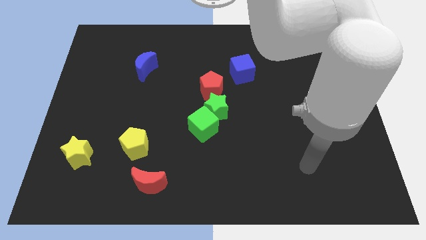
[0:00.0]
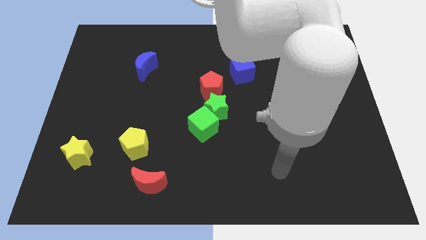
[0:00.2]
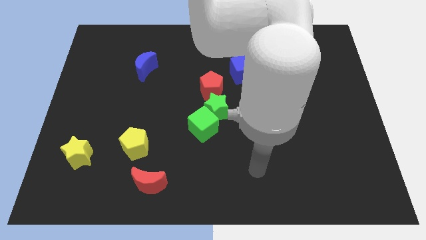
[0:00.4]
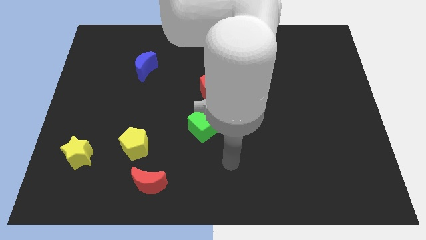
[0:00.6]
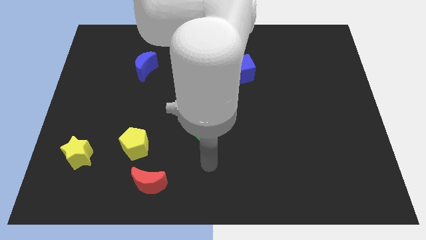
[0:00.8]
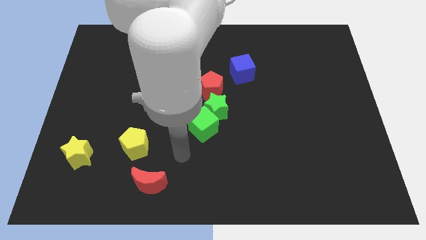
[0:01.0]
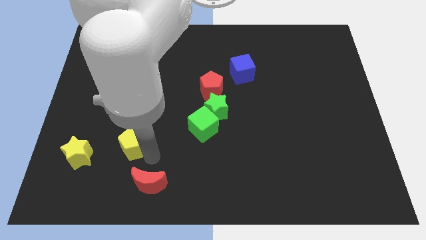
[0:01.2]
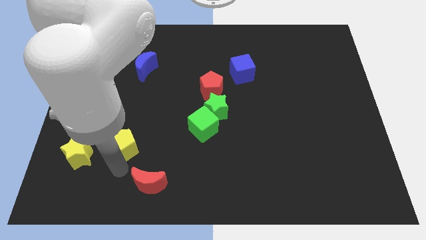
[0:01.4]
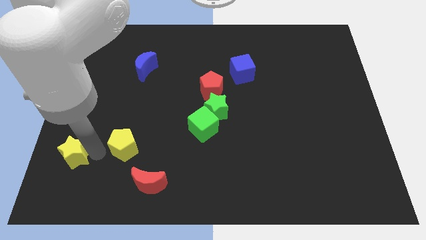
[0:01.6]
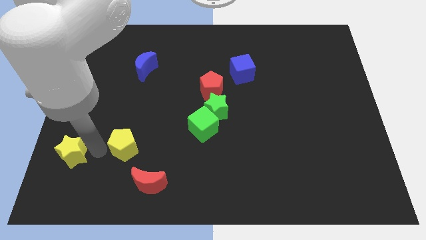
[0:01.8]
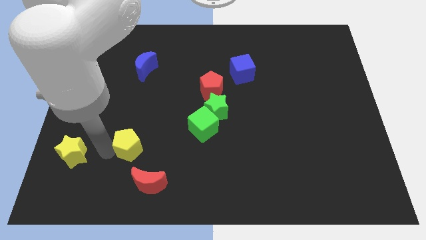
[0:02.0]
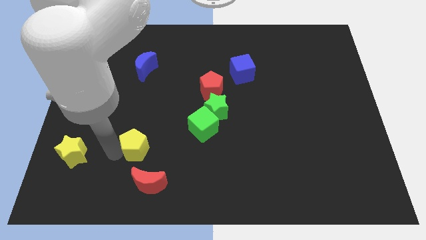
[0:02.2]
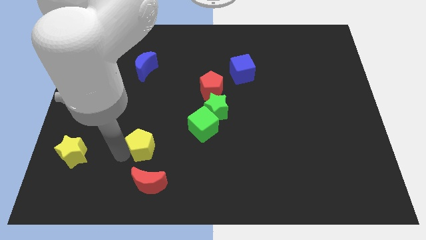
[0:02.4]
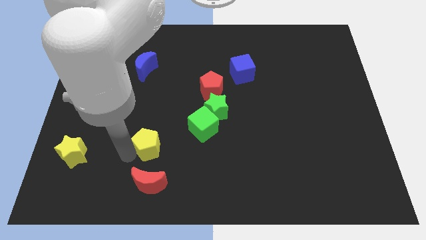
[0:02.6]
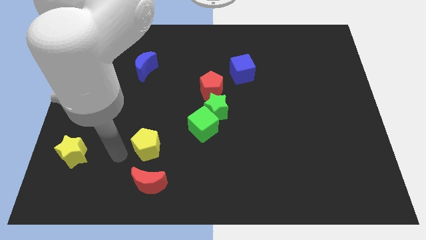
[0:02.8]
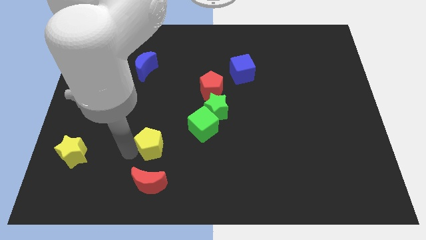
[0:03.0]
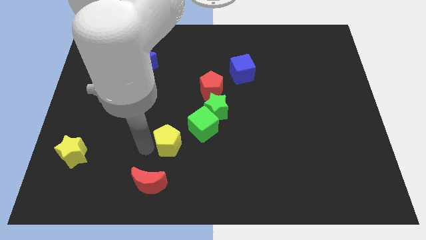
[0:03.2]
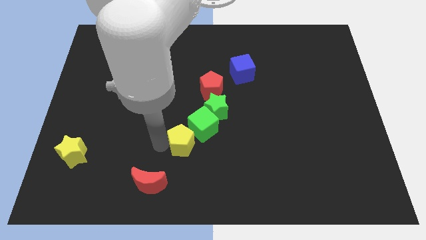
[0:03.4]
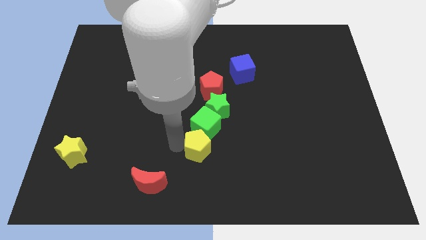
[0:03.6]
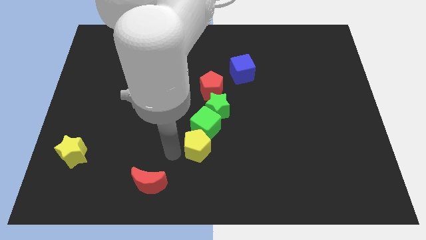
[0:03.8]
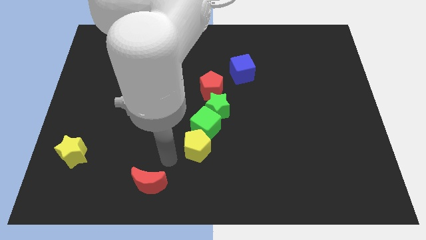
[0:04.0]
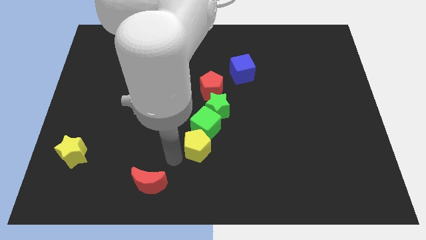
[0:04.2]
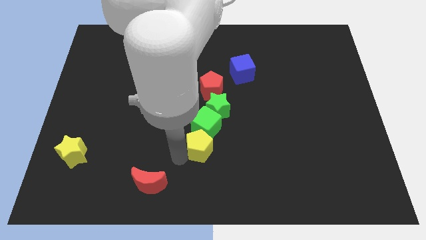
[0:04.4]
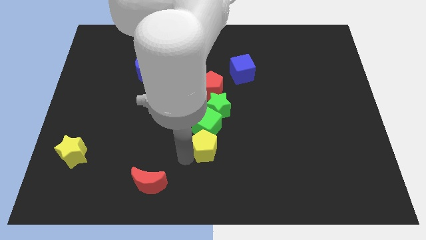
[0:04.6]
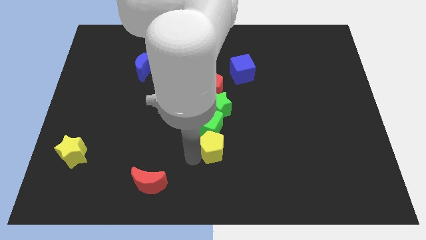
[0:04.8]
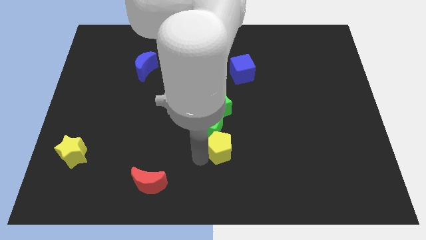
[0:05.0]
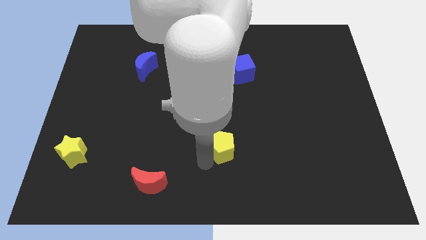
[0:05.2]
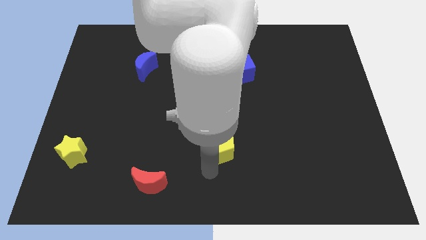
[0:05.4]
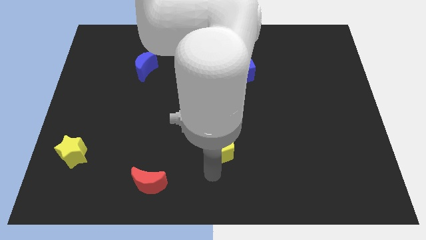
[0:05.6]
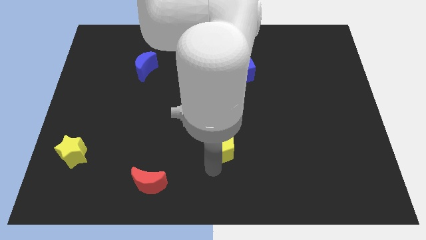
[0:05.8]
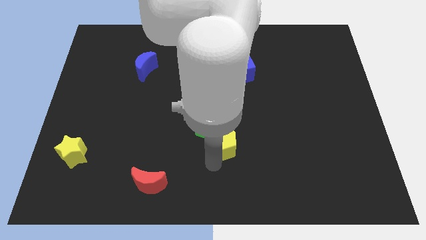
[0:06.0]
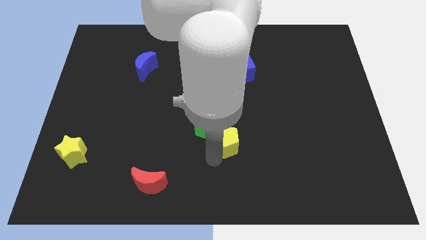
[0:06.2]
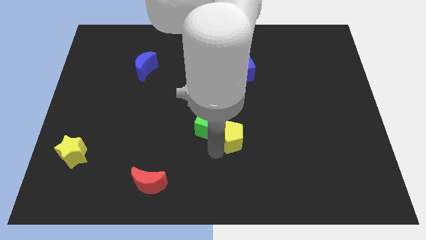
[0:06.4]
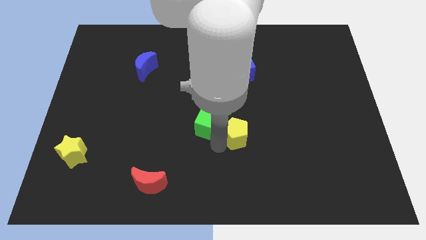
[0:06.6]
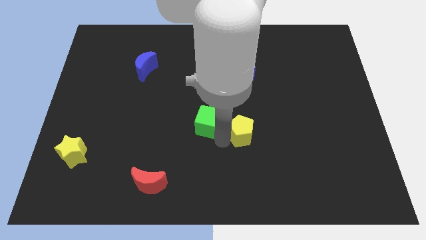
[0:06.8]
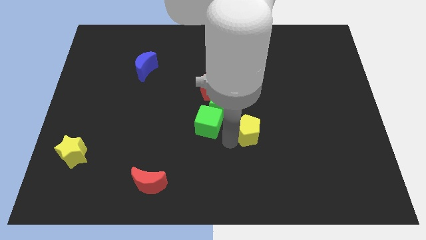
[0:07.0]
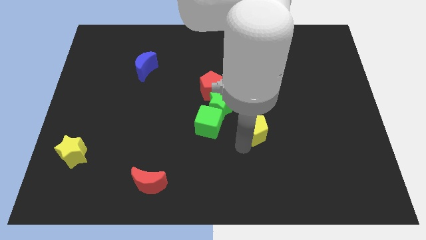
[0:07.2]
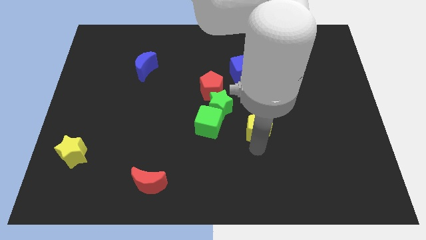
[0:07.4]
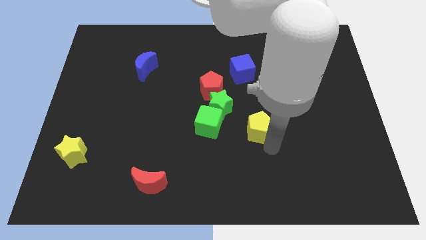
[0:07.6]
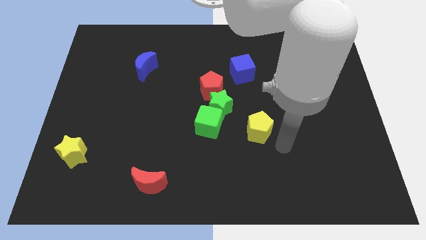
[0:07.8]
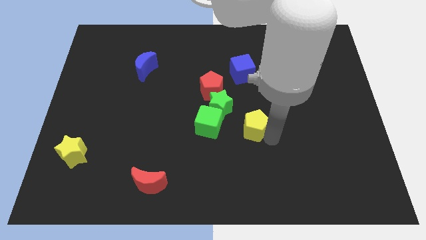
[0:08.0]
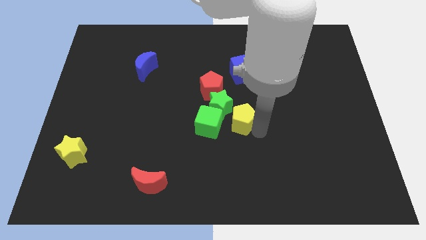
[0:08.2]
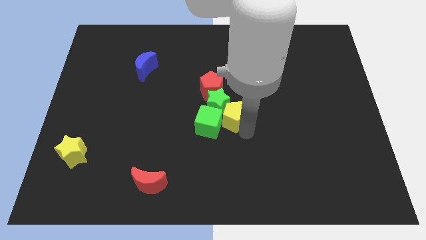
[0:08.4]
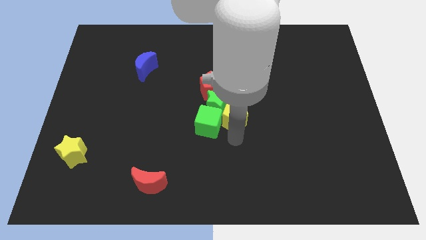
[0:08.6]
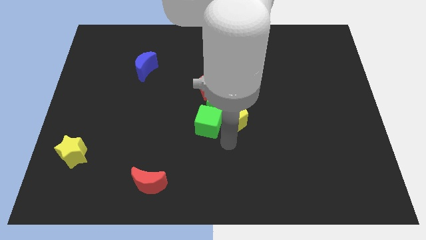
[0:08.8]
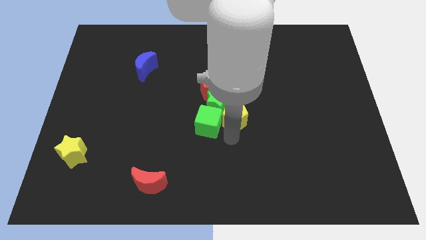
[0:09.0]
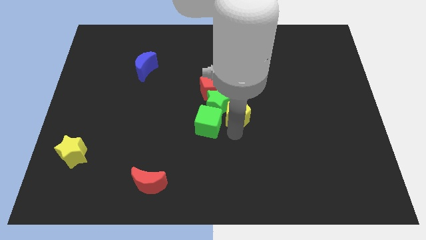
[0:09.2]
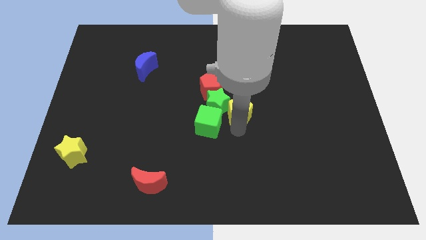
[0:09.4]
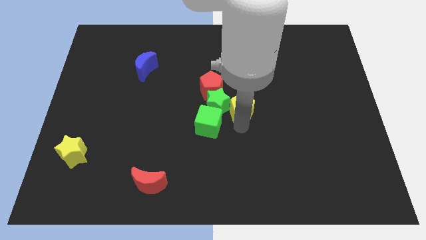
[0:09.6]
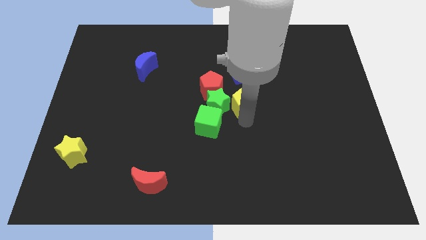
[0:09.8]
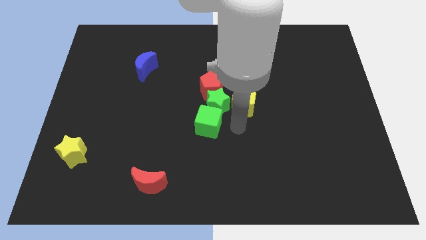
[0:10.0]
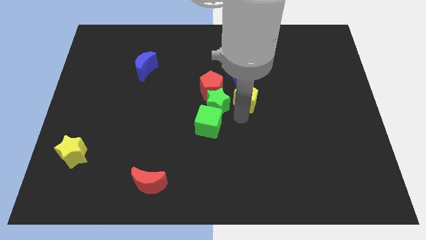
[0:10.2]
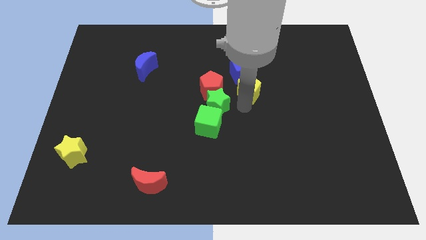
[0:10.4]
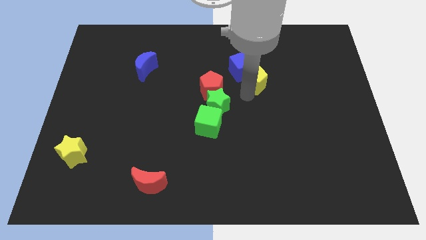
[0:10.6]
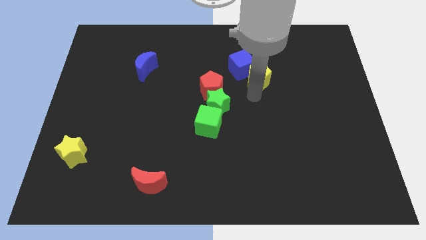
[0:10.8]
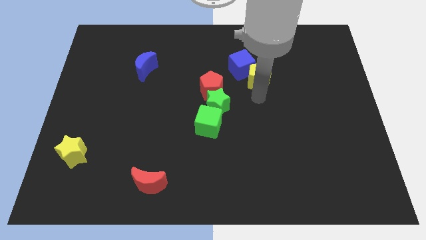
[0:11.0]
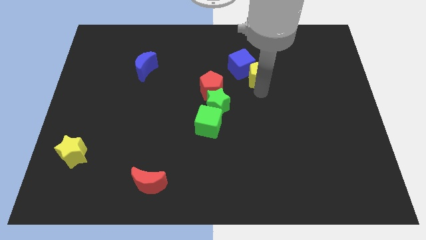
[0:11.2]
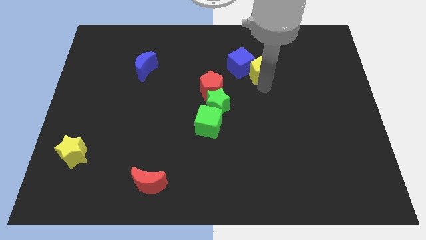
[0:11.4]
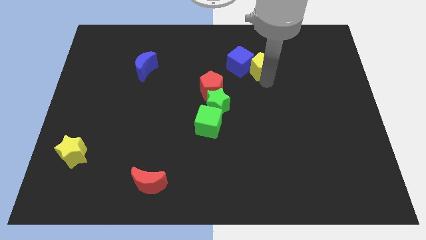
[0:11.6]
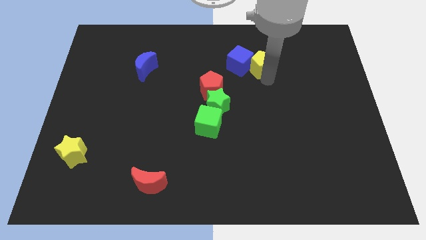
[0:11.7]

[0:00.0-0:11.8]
push the yellow pentagon to the top right of the blue cube

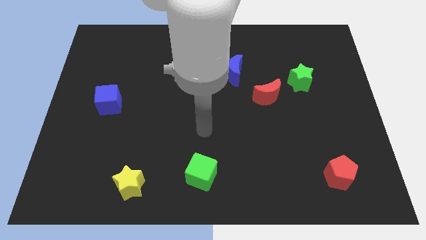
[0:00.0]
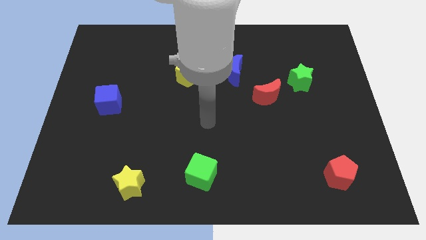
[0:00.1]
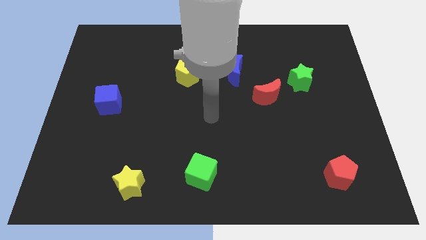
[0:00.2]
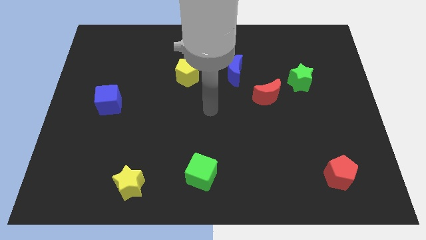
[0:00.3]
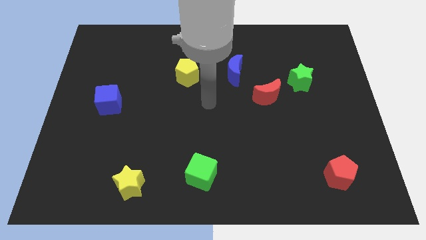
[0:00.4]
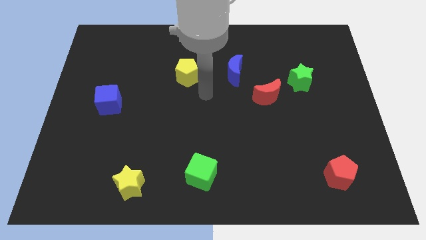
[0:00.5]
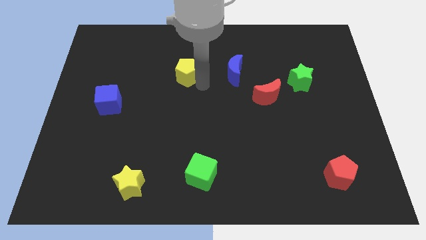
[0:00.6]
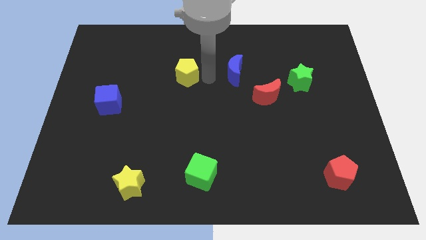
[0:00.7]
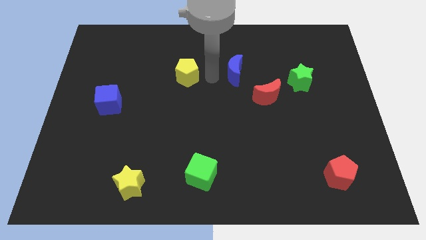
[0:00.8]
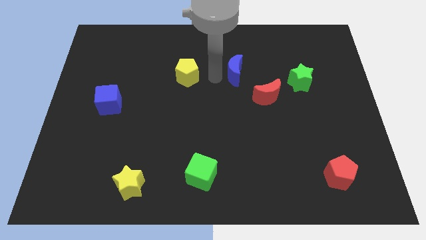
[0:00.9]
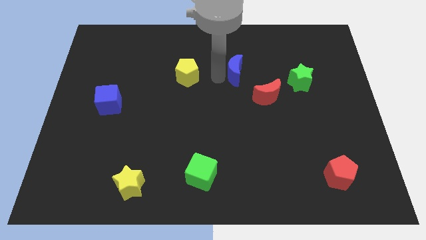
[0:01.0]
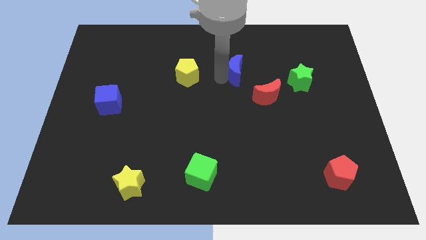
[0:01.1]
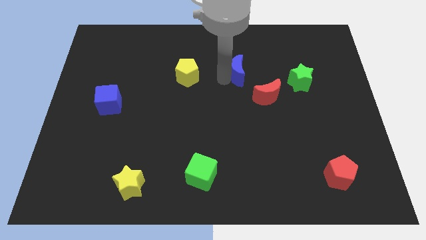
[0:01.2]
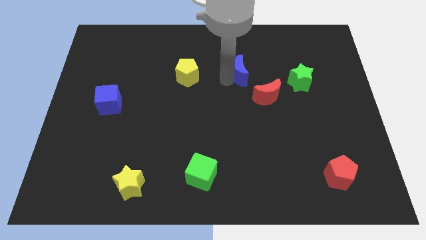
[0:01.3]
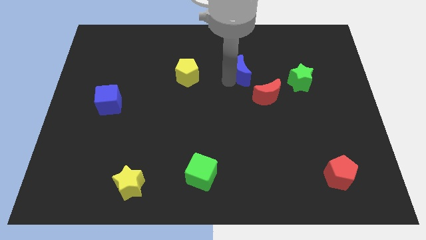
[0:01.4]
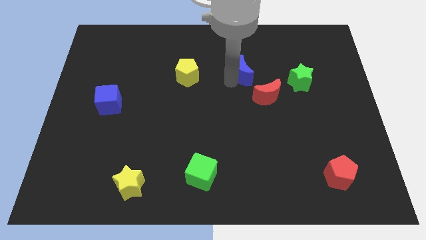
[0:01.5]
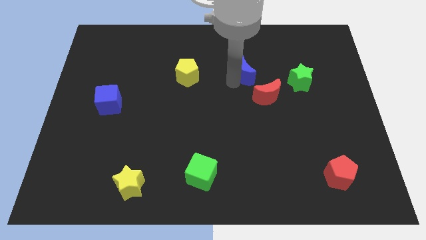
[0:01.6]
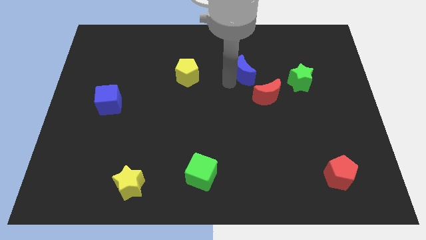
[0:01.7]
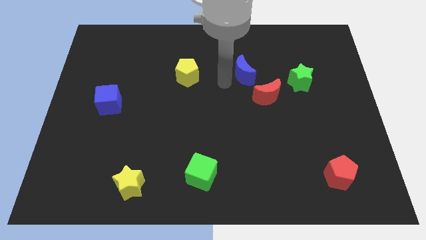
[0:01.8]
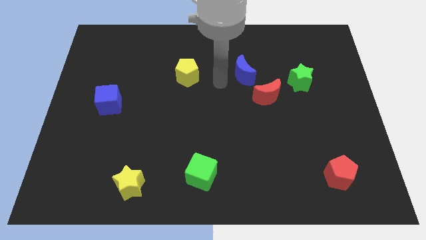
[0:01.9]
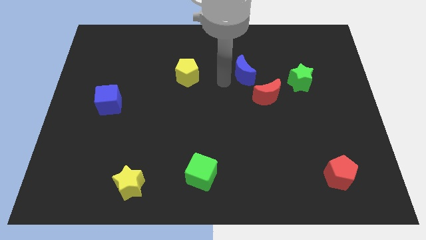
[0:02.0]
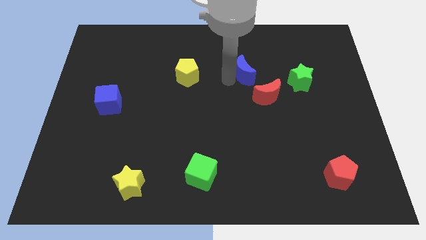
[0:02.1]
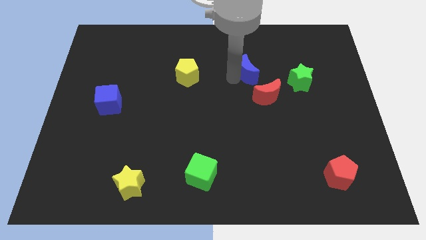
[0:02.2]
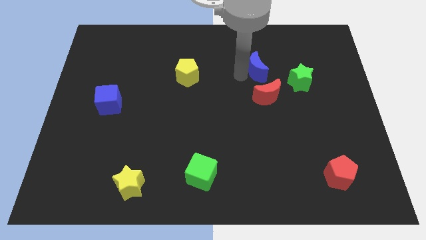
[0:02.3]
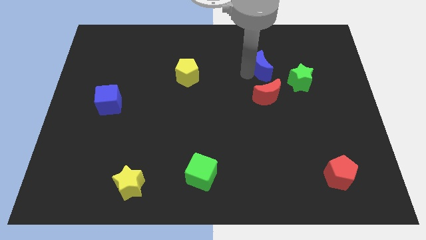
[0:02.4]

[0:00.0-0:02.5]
slide the blue moon to the top left of the green star

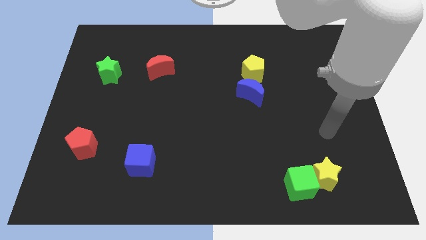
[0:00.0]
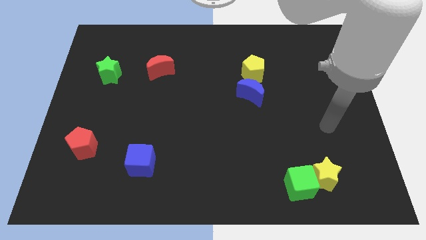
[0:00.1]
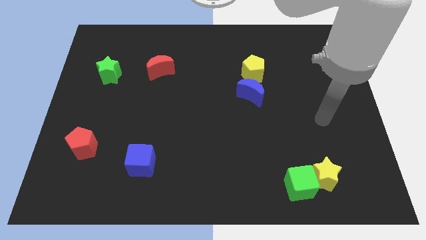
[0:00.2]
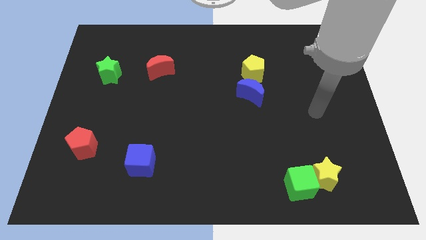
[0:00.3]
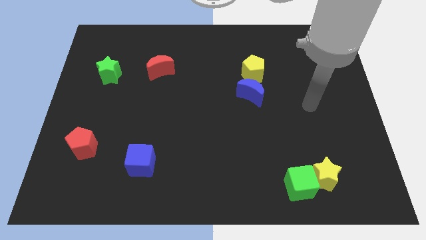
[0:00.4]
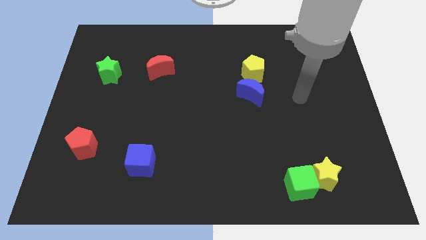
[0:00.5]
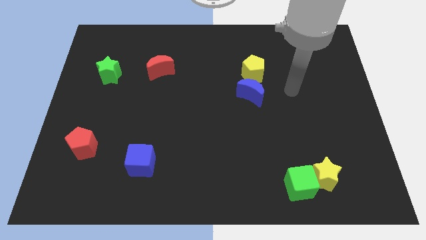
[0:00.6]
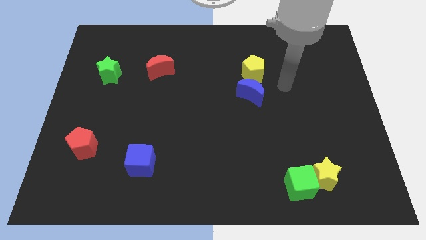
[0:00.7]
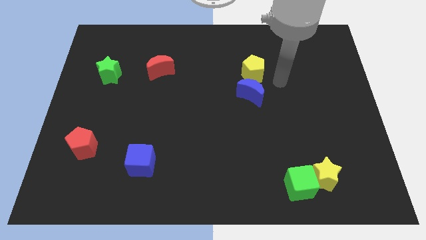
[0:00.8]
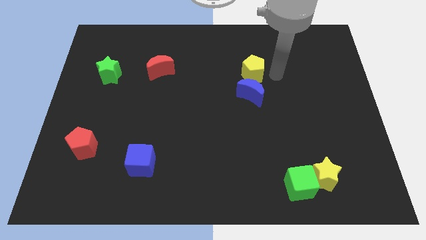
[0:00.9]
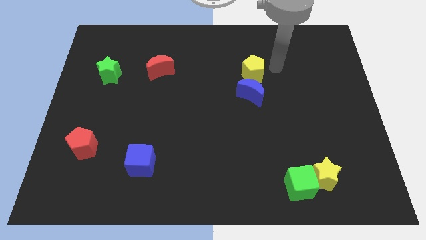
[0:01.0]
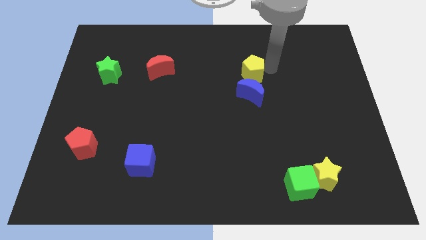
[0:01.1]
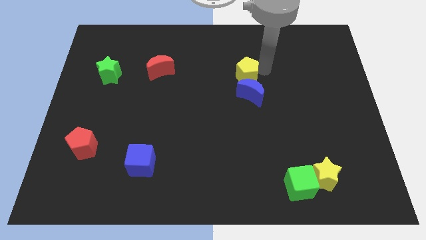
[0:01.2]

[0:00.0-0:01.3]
push the yellow pentagon to the top left side of the blue moon
